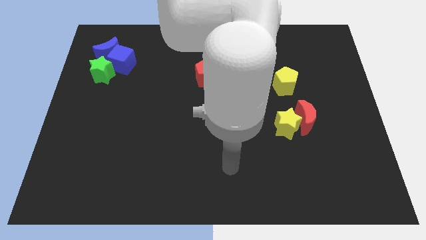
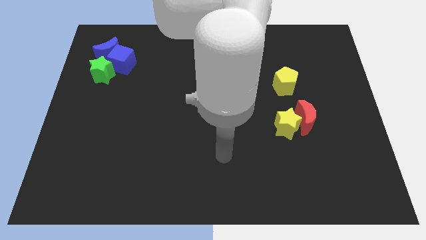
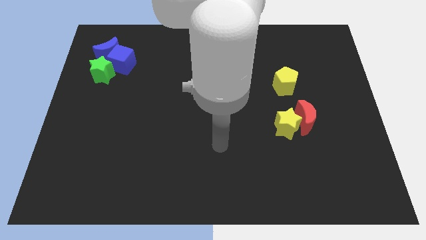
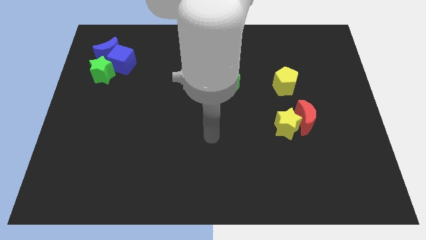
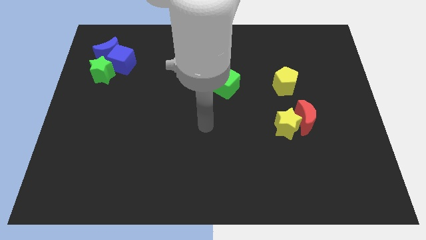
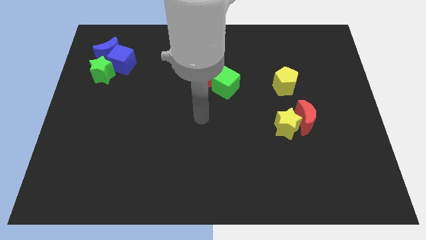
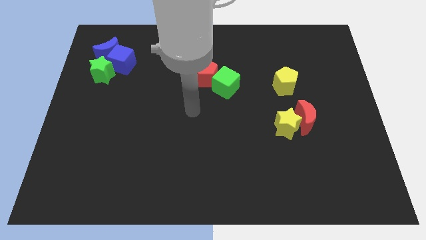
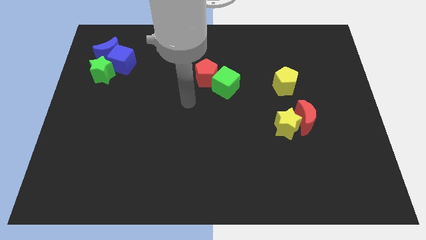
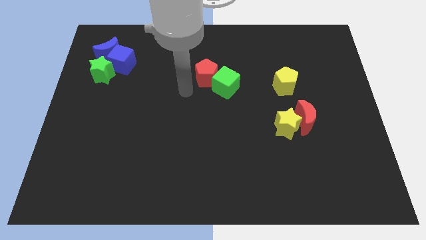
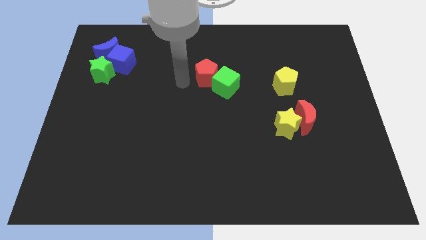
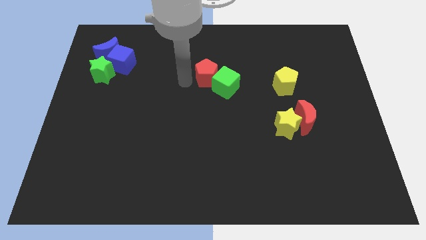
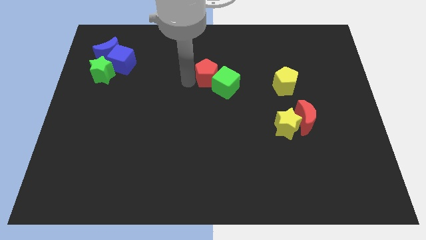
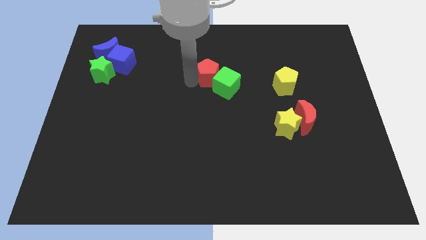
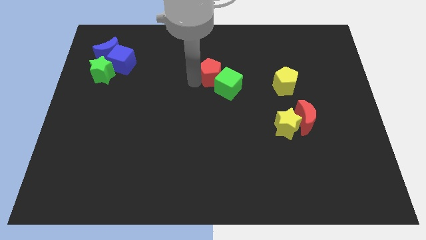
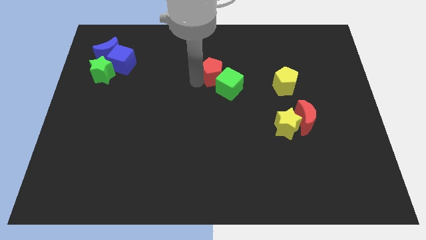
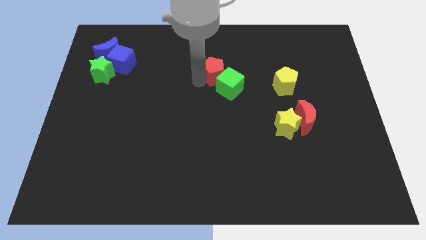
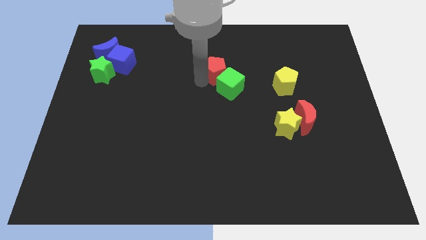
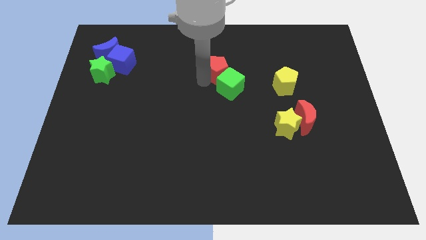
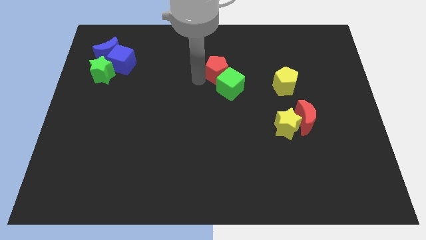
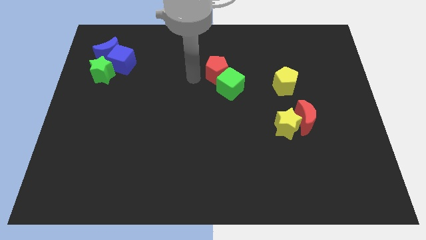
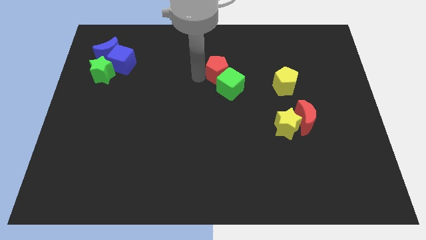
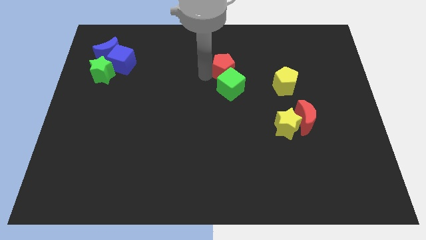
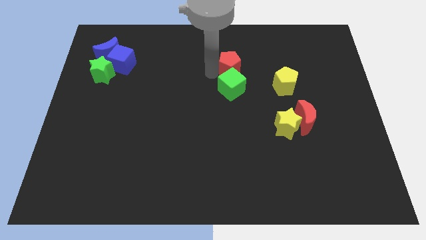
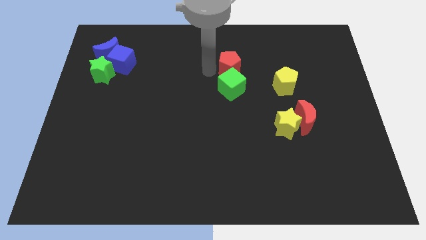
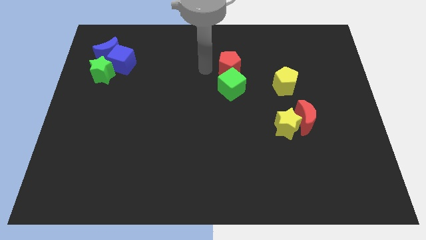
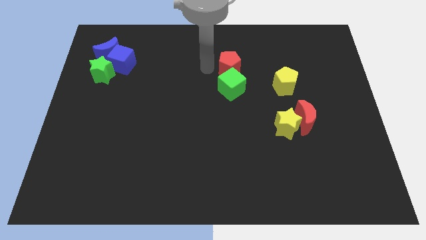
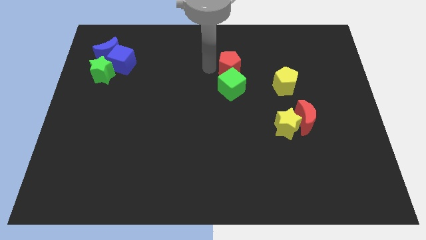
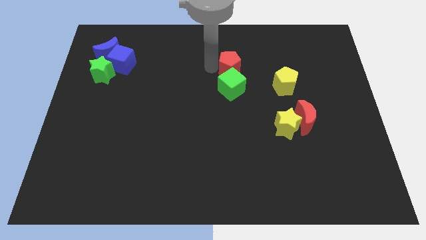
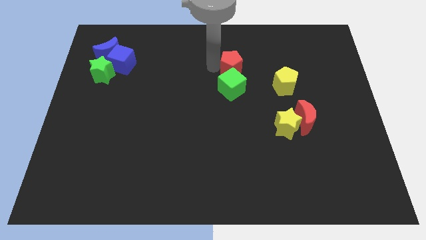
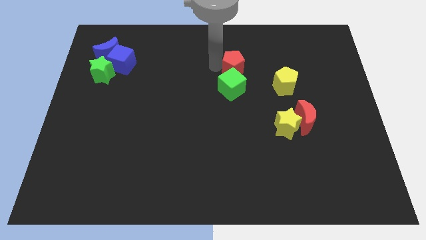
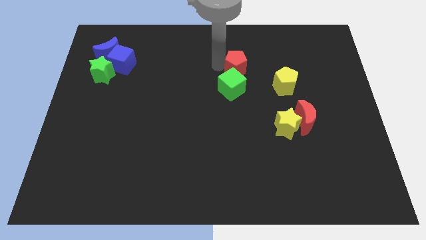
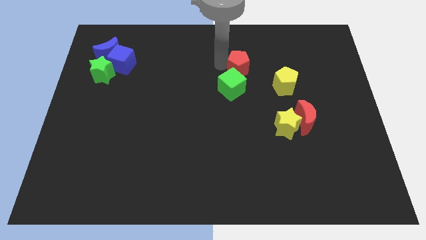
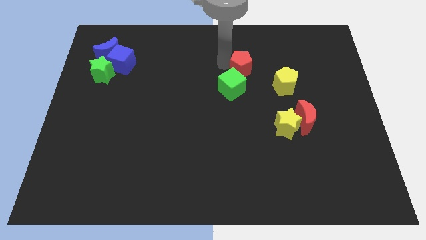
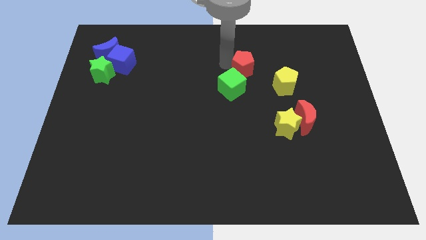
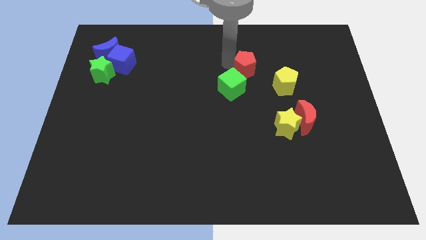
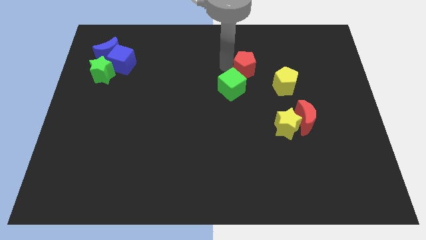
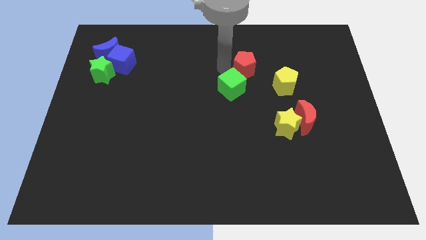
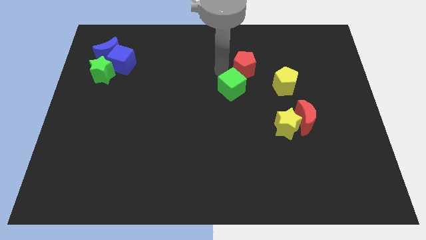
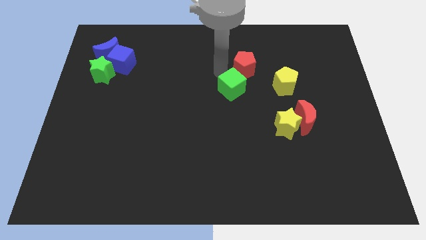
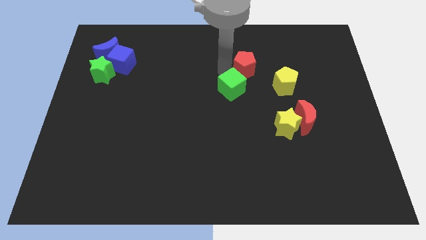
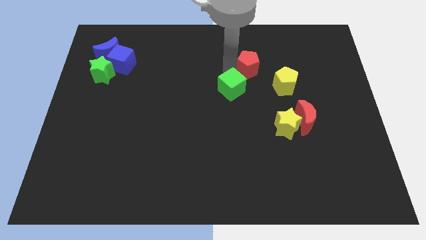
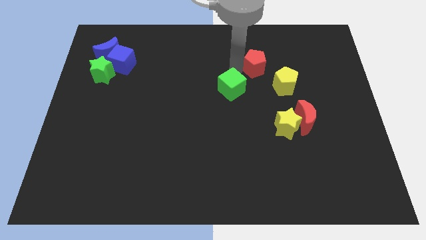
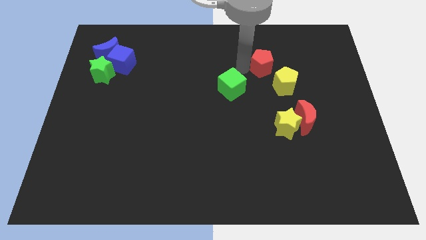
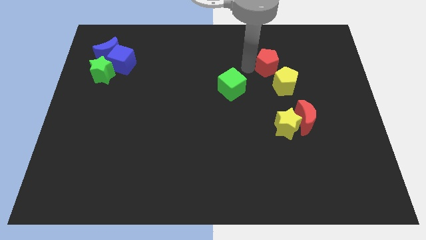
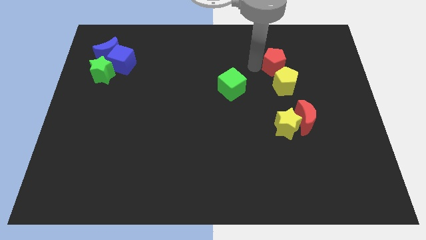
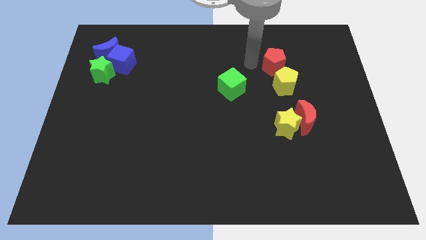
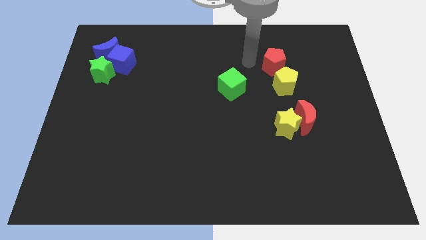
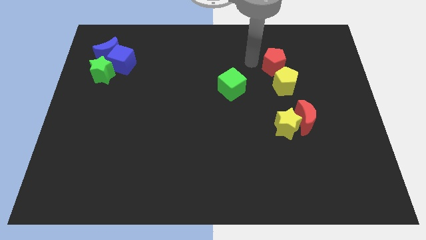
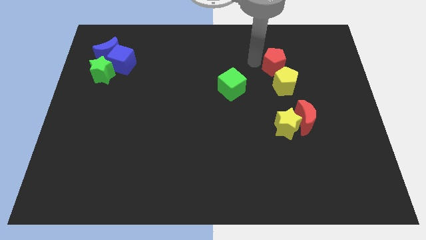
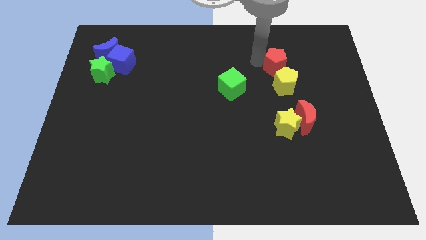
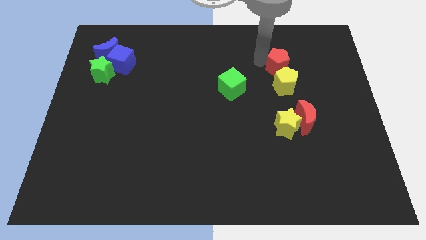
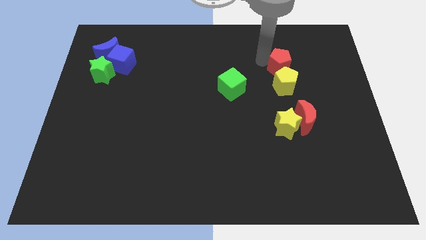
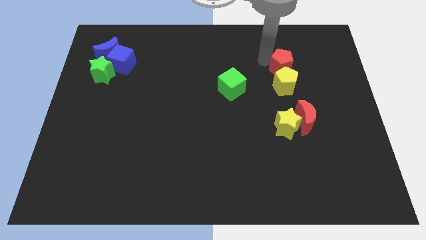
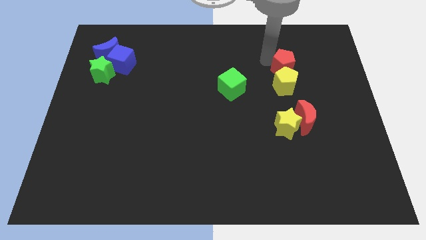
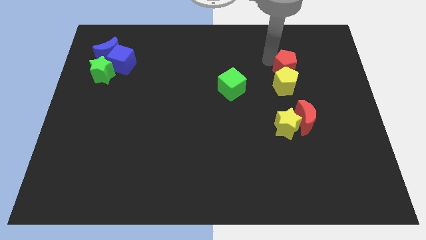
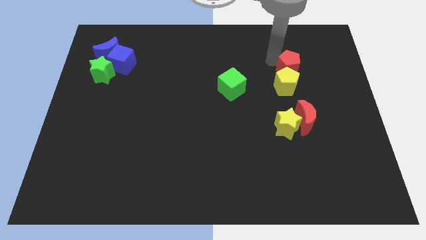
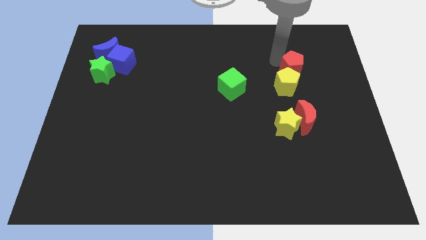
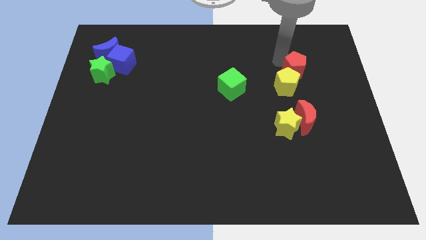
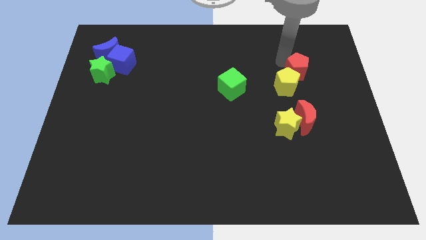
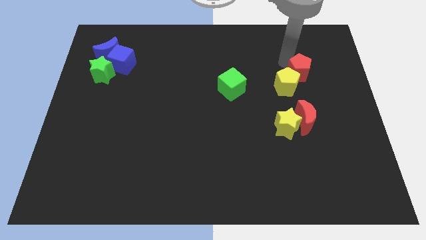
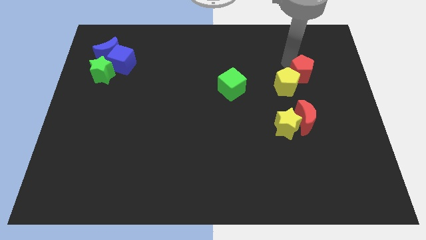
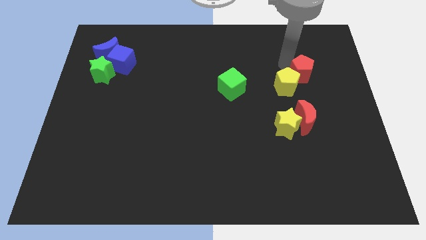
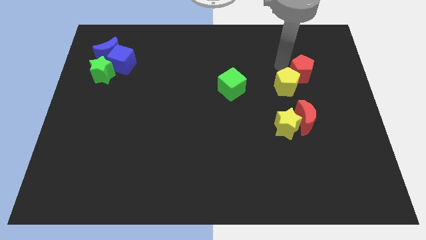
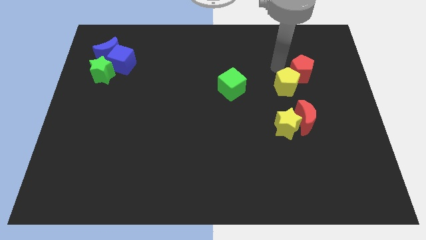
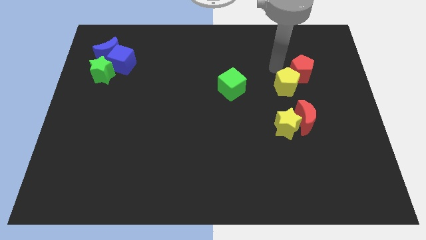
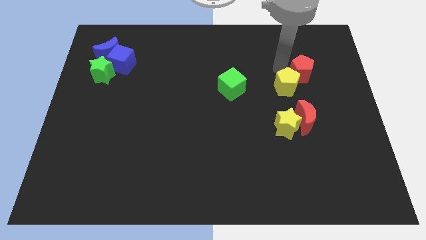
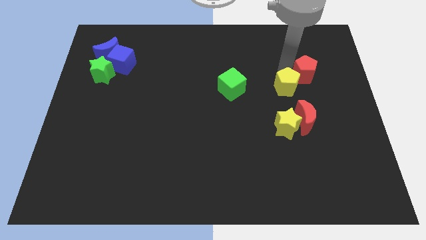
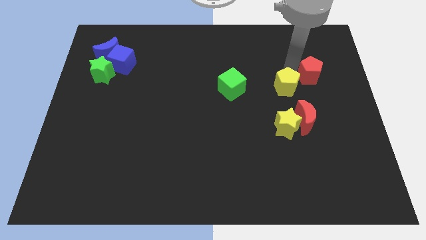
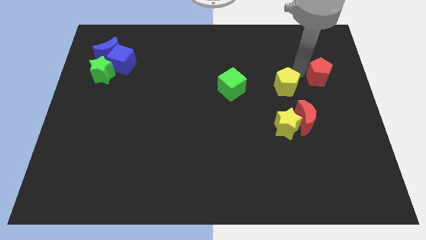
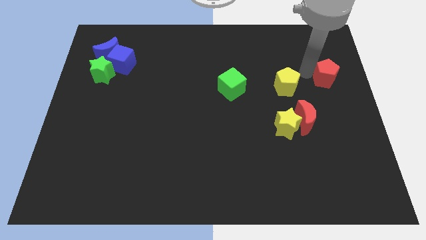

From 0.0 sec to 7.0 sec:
push the red pentagon to the right side
